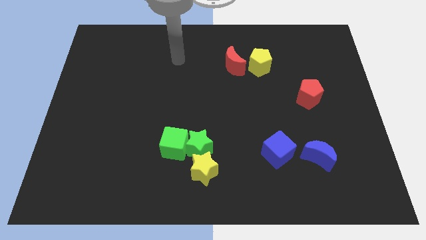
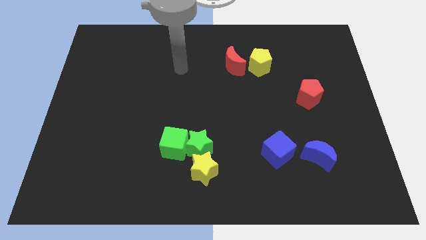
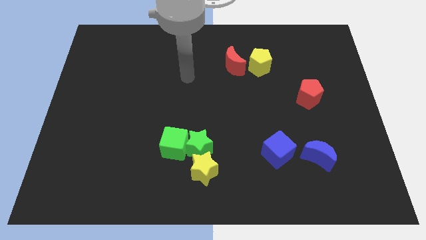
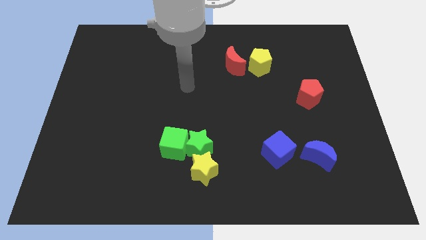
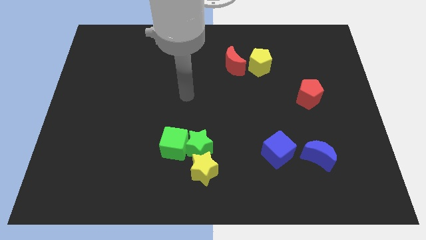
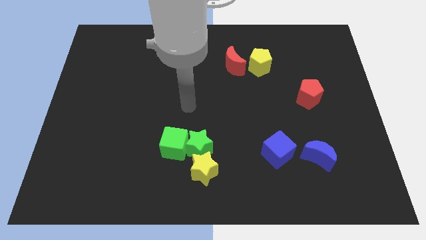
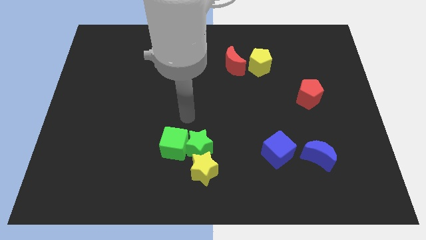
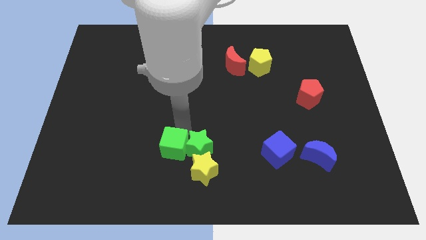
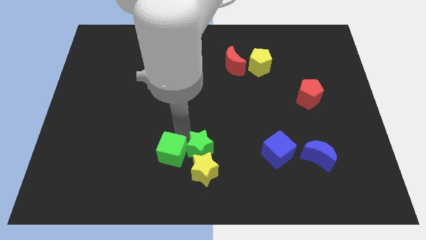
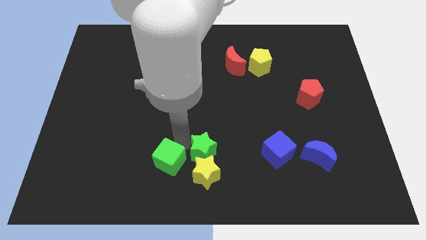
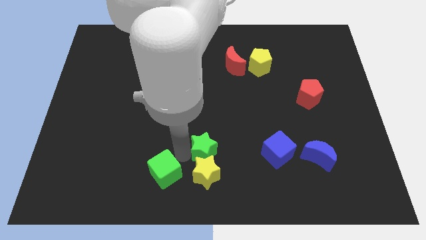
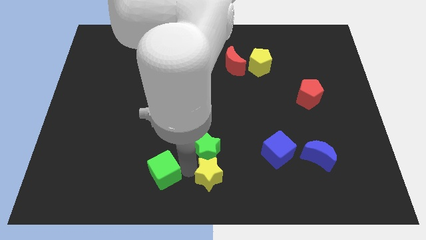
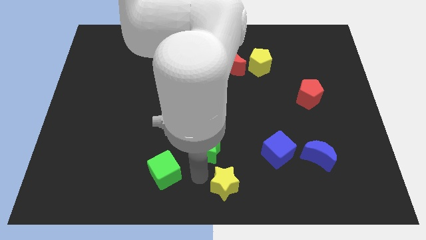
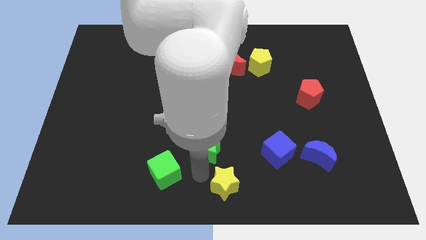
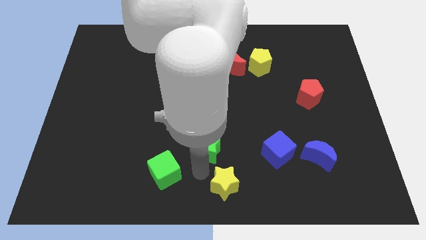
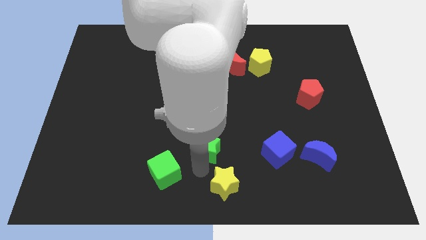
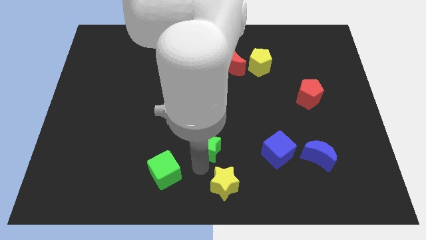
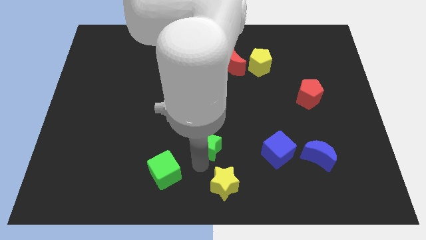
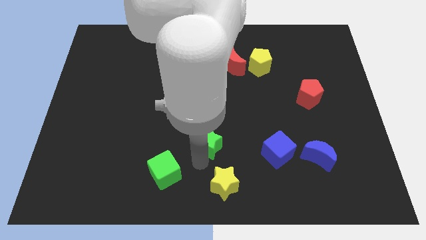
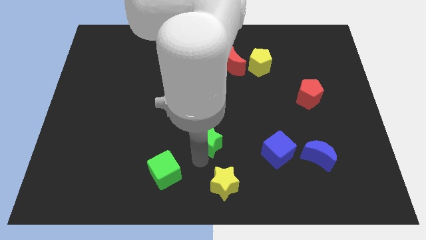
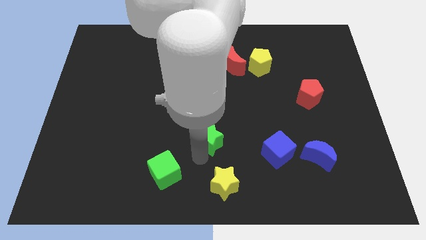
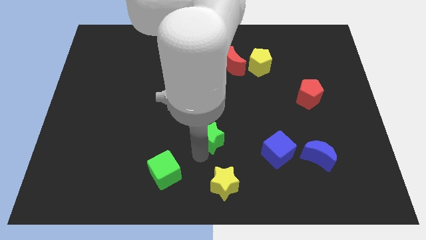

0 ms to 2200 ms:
pull the green star apart from the green cube and yellow star

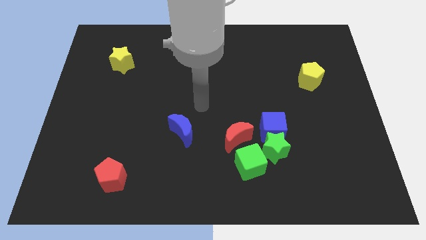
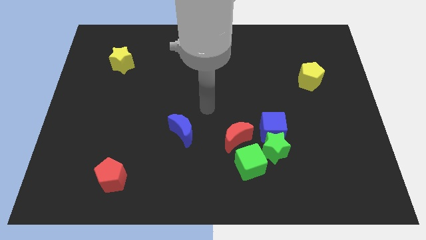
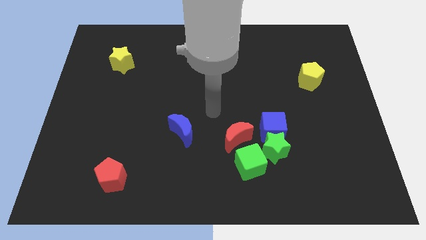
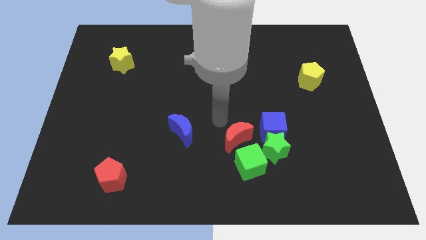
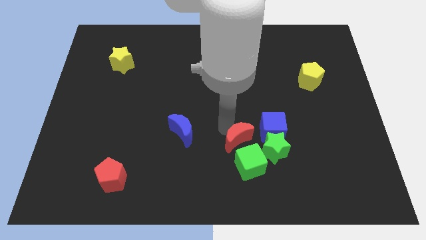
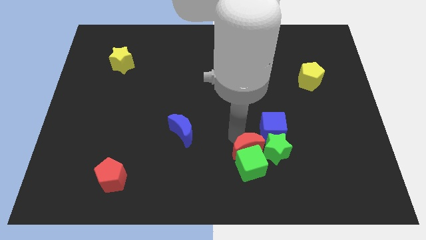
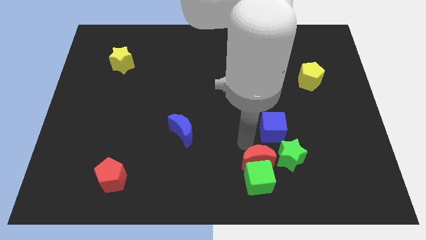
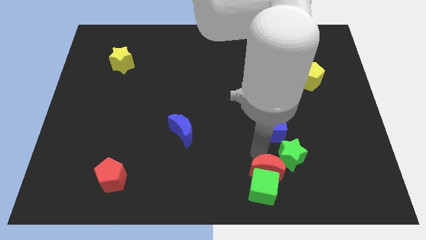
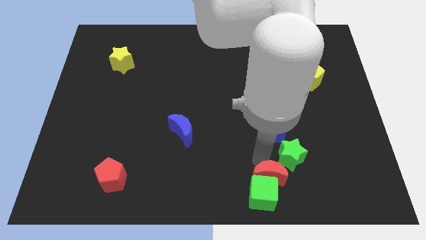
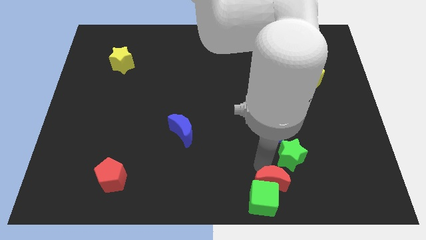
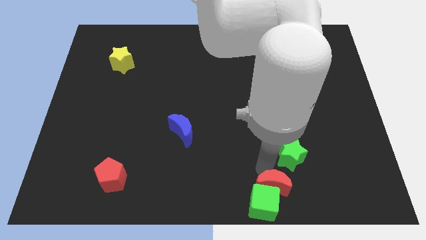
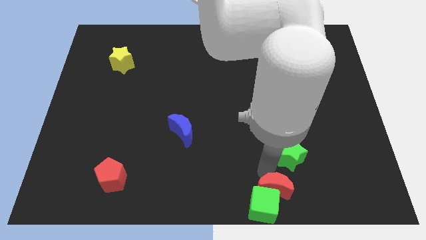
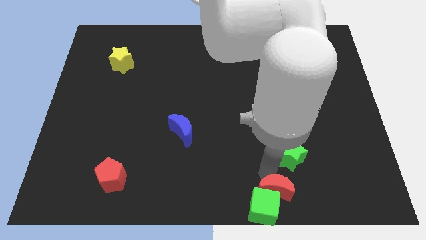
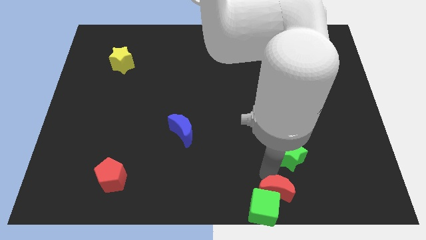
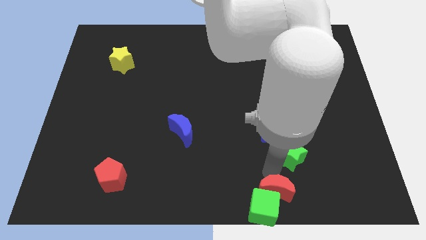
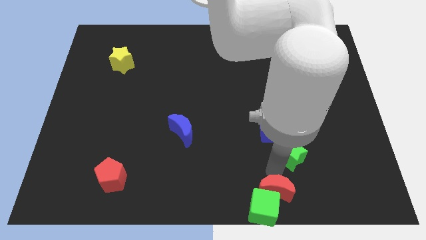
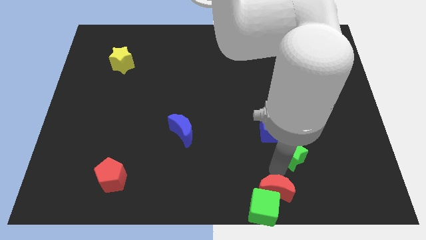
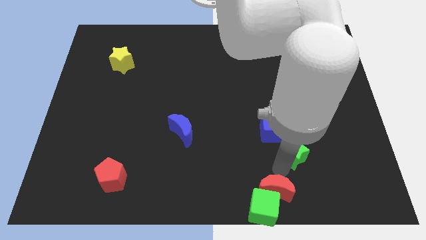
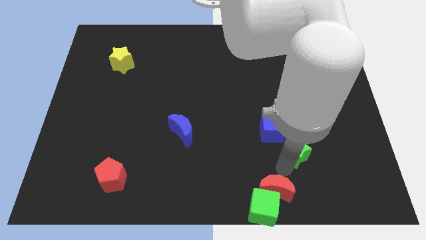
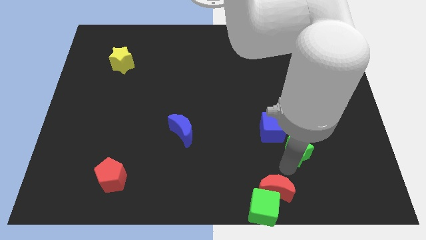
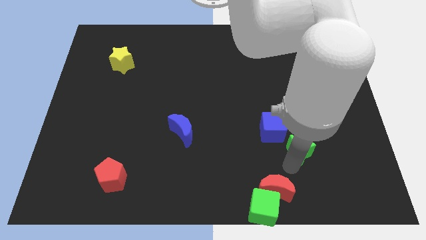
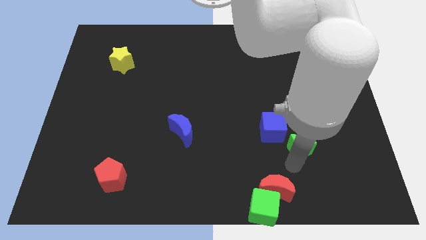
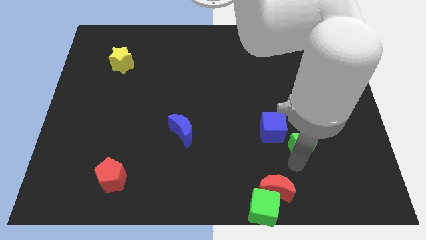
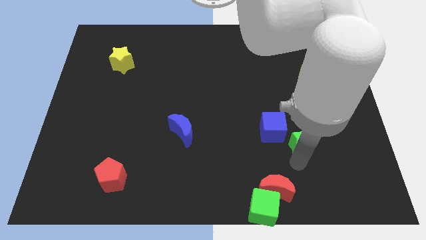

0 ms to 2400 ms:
pull the green star apart from the blue cube, green cube, and red moon

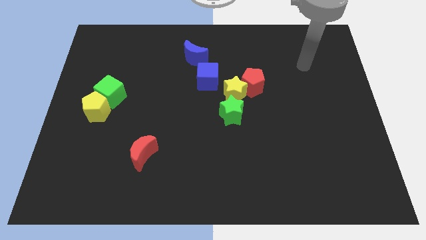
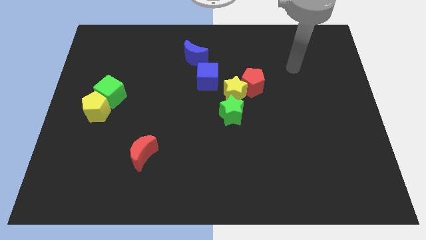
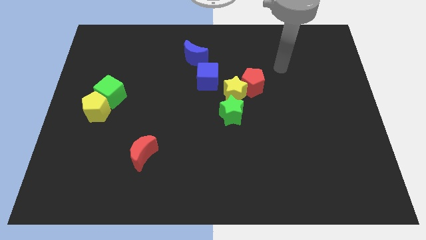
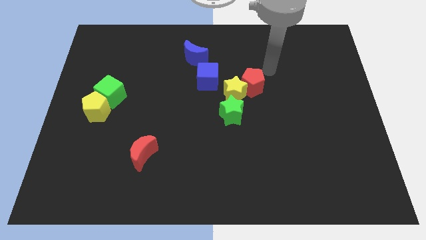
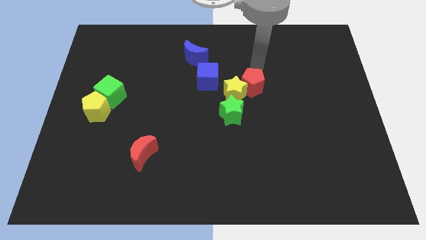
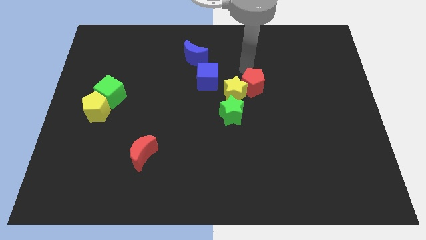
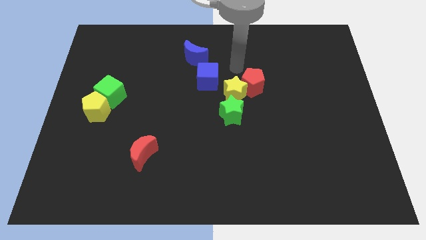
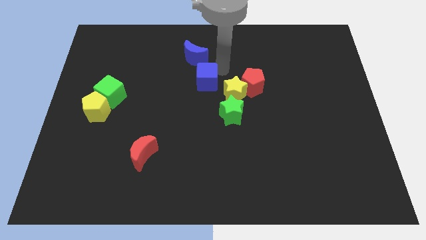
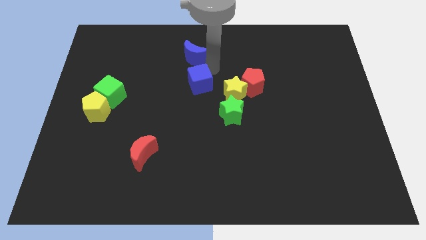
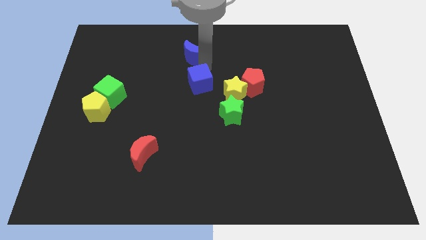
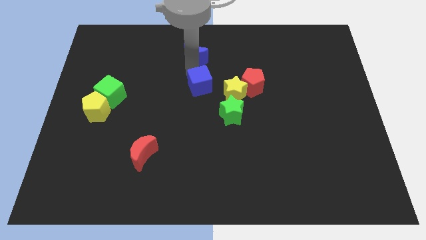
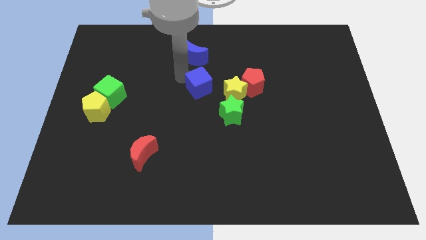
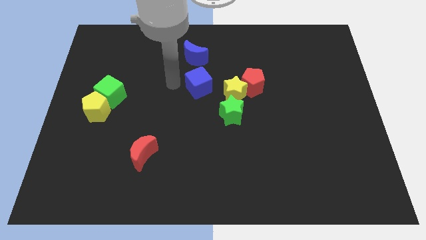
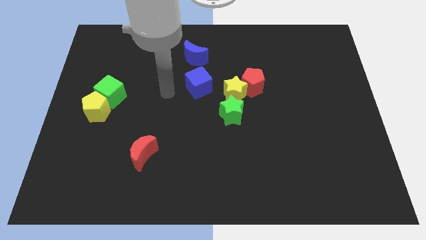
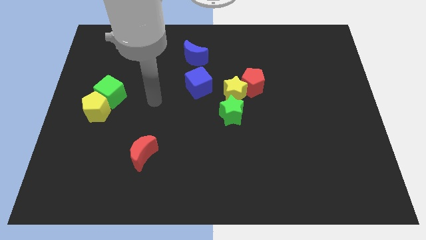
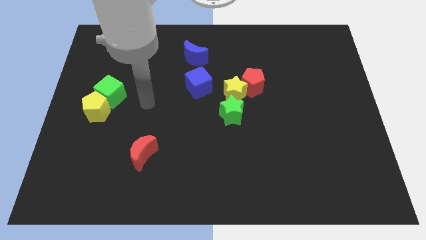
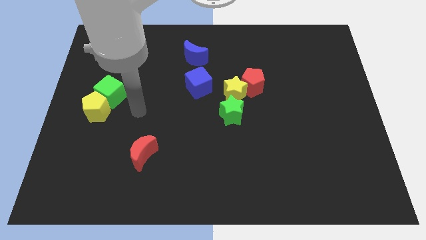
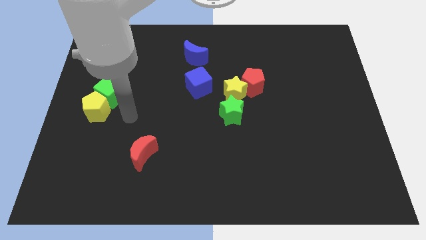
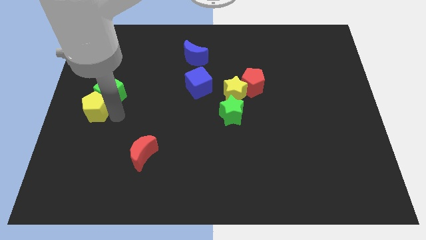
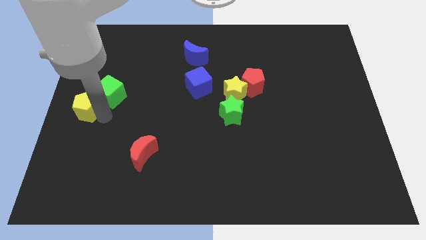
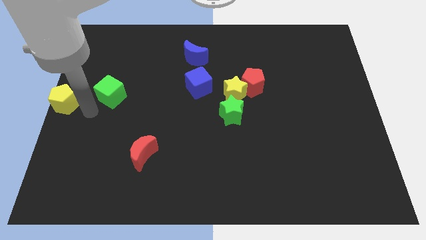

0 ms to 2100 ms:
move the green cube away from the yellow pentagon

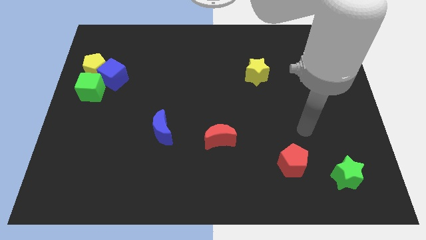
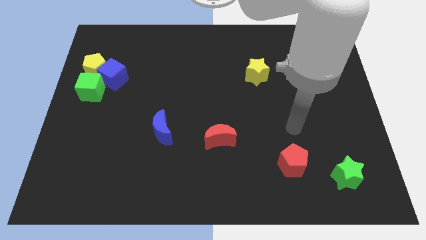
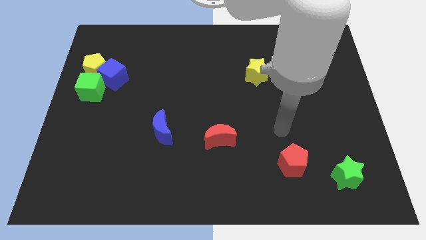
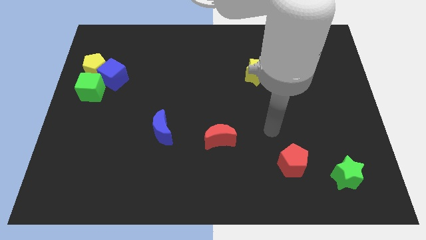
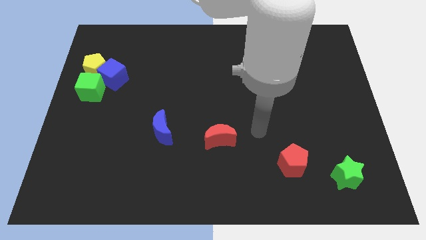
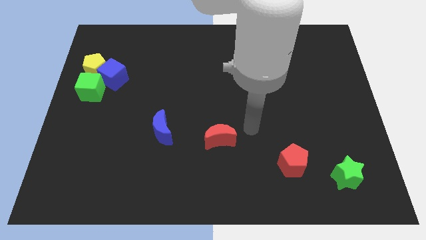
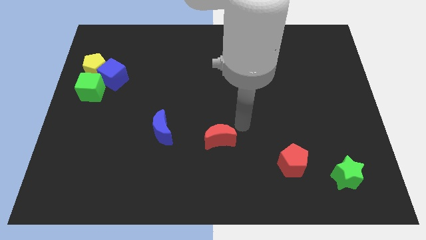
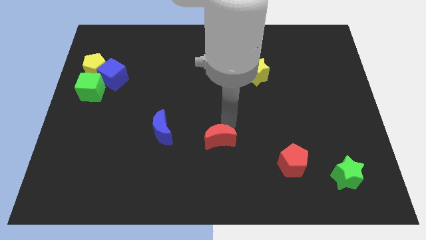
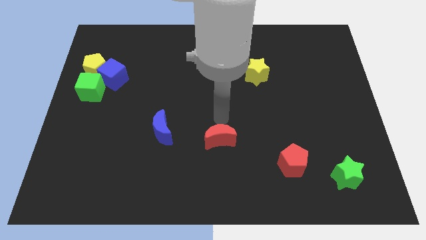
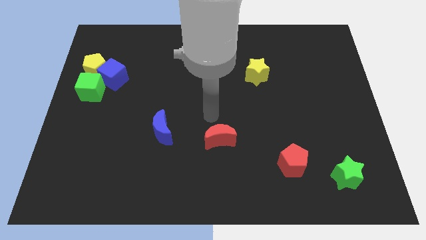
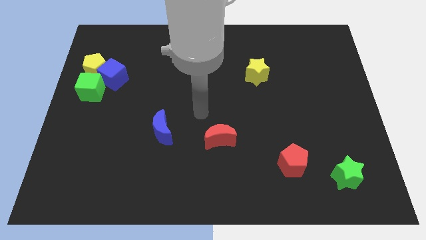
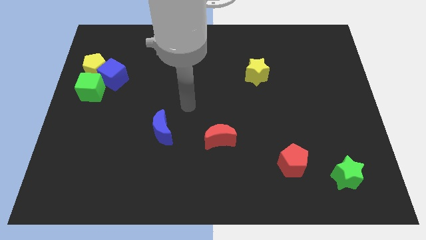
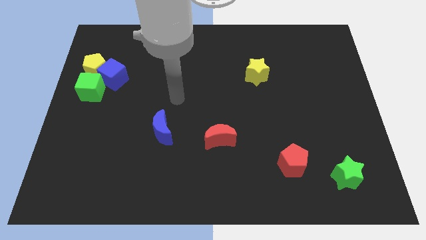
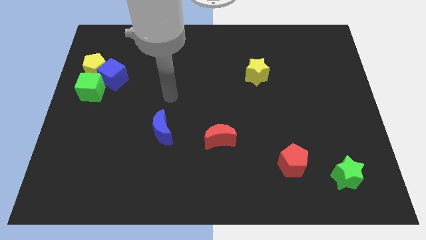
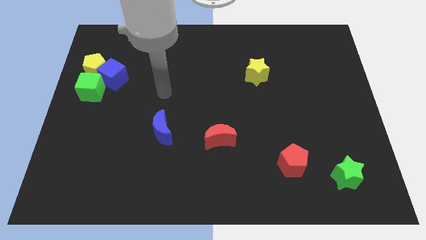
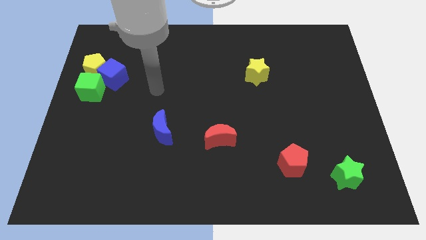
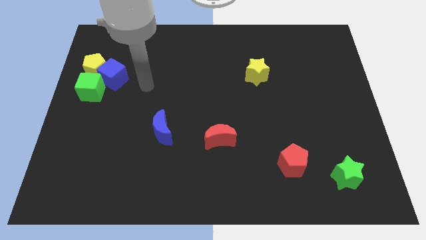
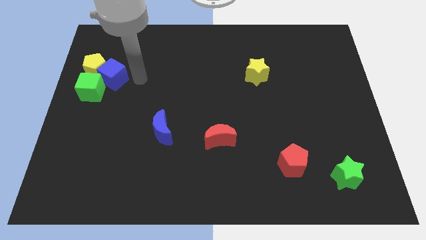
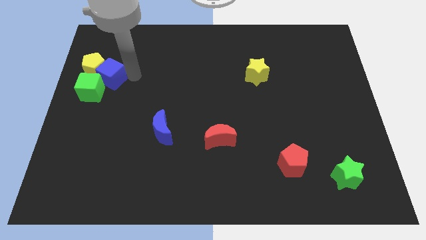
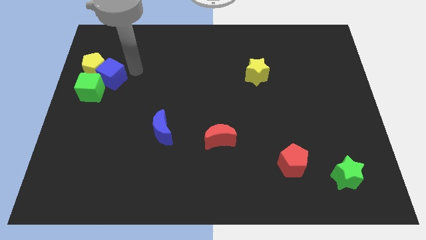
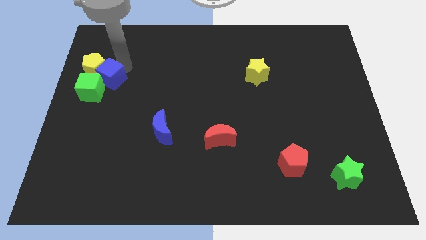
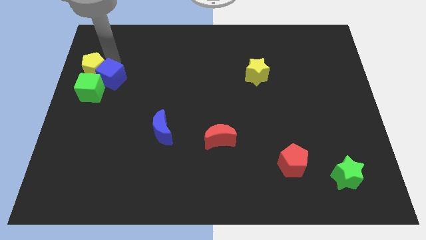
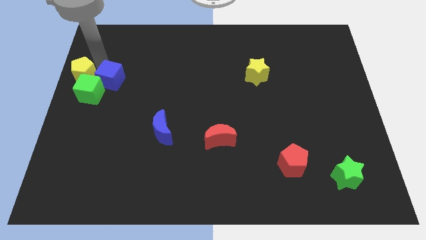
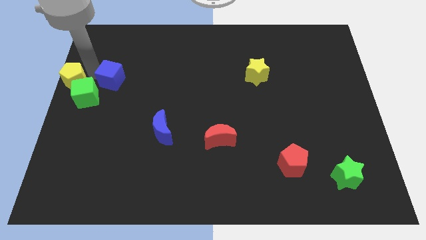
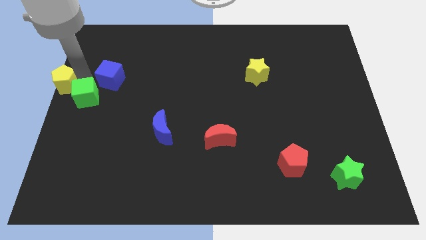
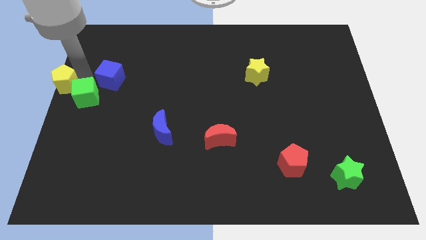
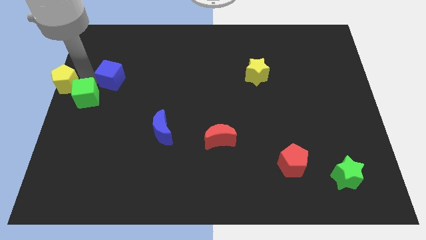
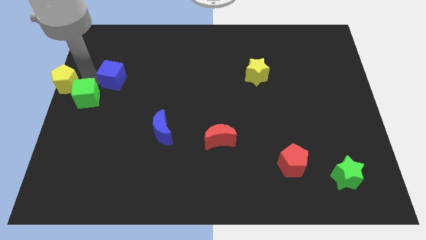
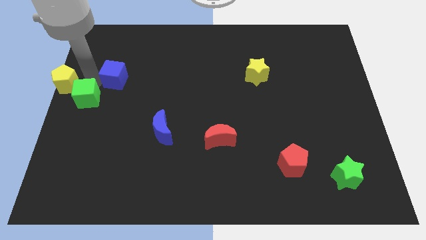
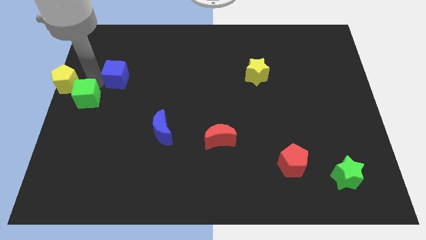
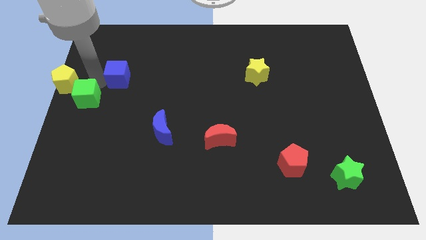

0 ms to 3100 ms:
separate the blue cube from the yellow pentagon and green cube
